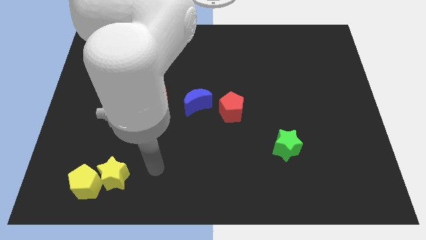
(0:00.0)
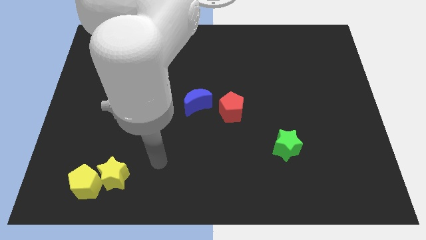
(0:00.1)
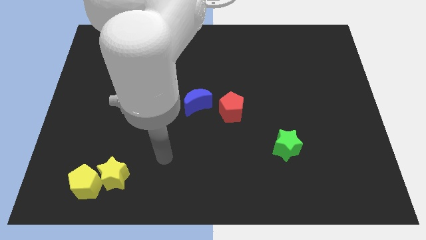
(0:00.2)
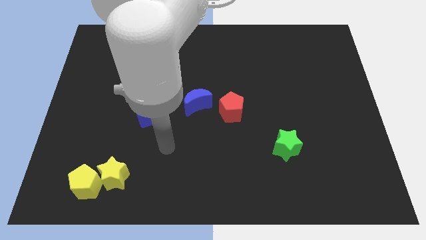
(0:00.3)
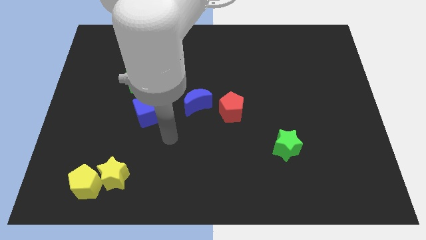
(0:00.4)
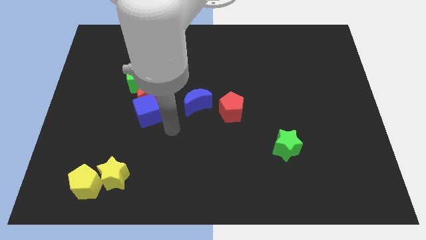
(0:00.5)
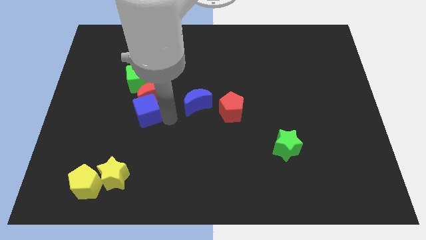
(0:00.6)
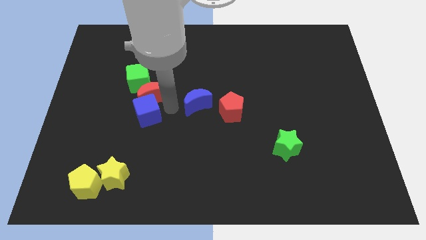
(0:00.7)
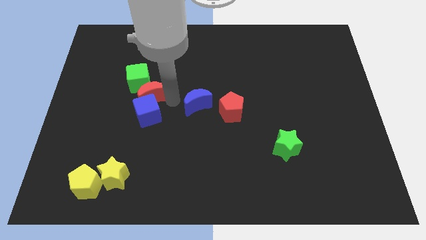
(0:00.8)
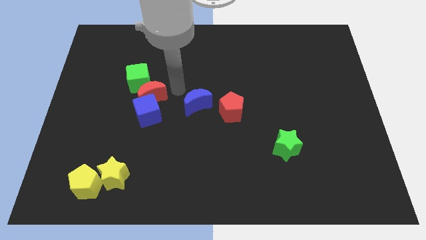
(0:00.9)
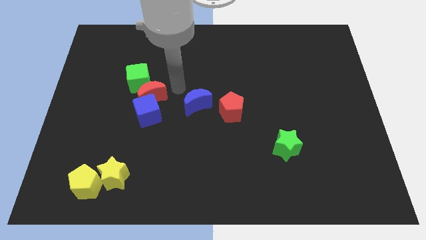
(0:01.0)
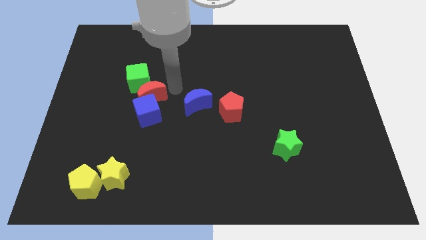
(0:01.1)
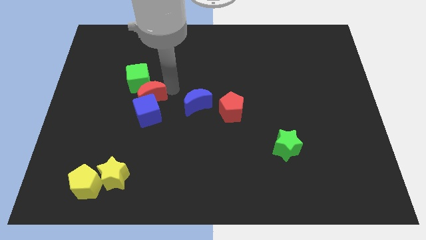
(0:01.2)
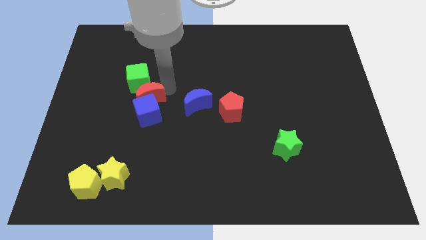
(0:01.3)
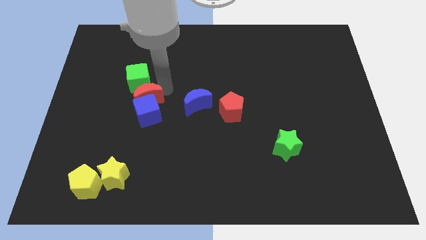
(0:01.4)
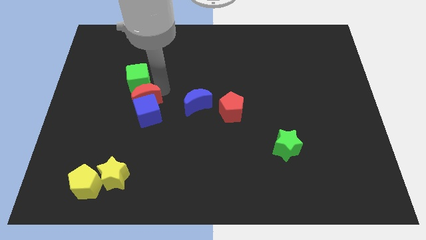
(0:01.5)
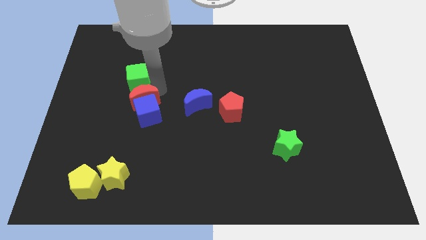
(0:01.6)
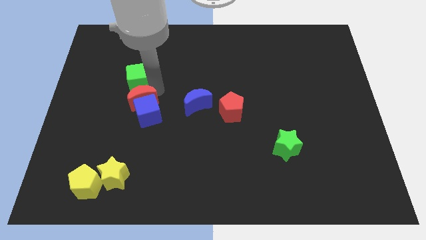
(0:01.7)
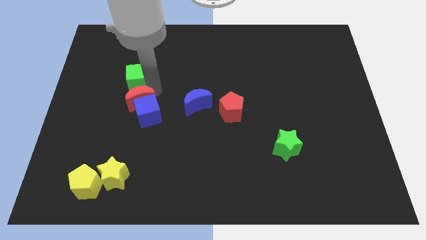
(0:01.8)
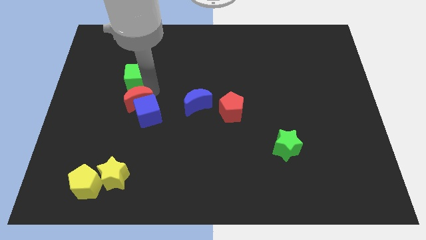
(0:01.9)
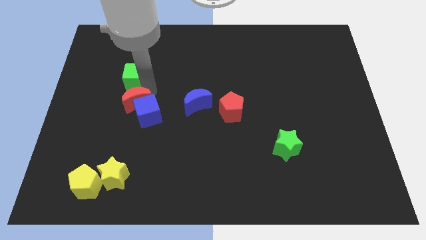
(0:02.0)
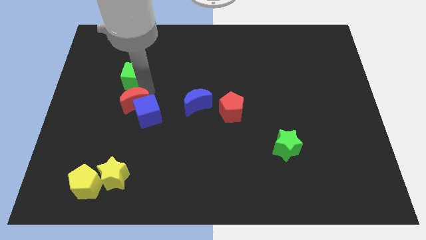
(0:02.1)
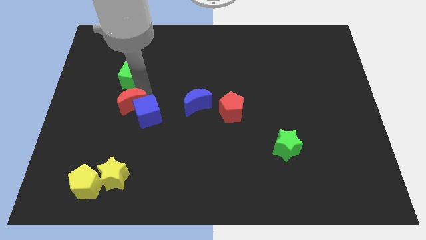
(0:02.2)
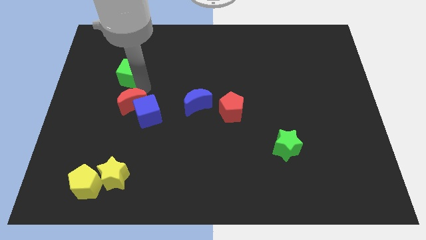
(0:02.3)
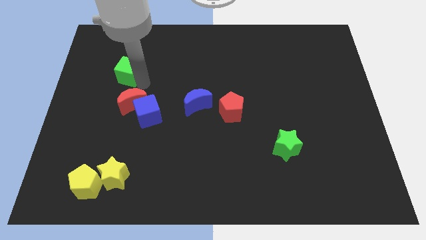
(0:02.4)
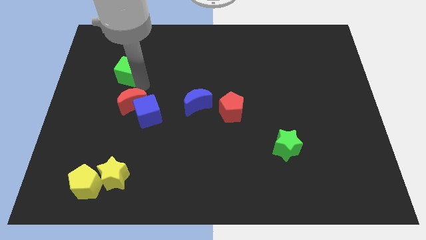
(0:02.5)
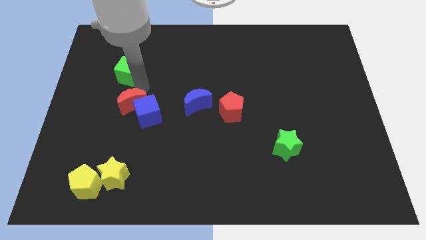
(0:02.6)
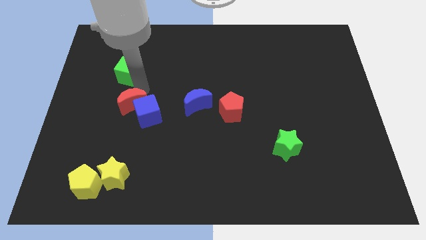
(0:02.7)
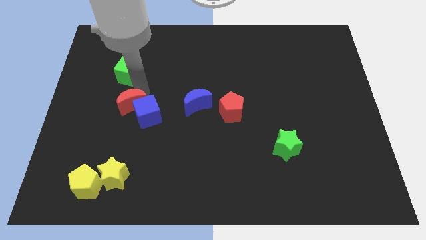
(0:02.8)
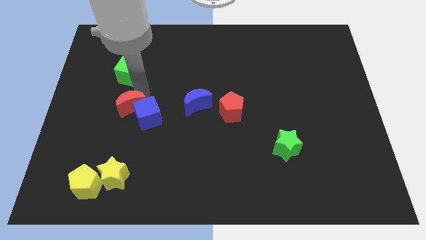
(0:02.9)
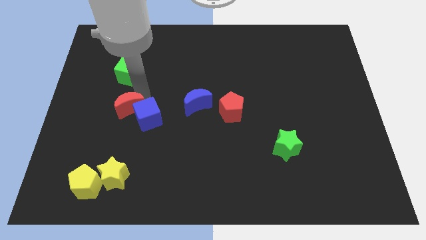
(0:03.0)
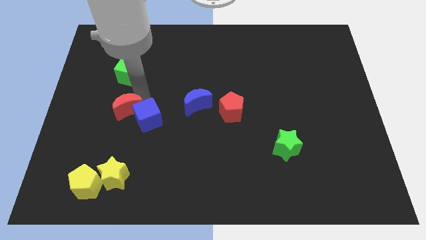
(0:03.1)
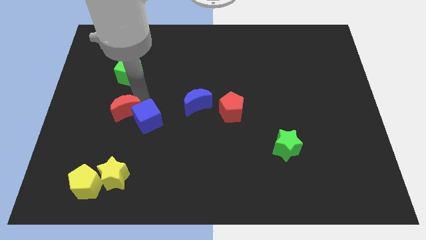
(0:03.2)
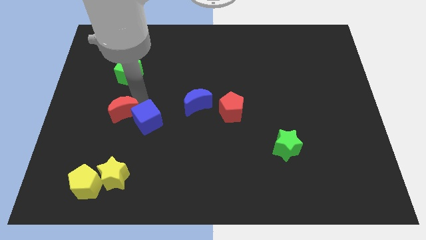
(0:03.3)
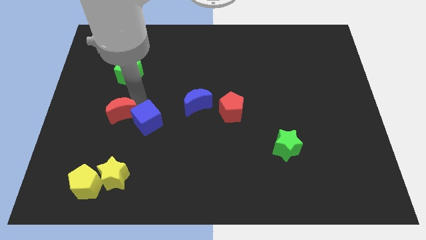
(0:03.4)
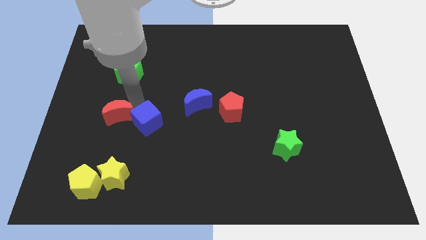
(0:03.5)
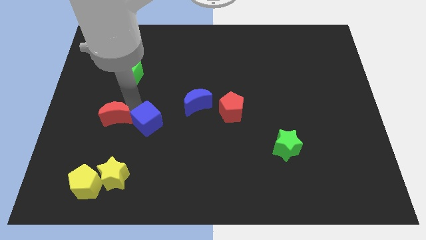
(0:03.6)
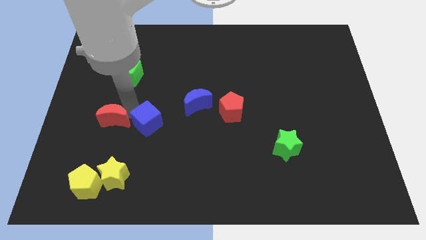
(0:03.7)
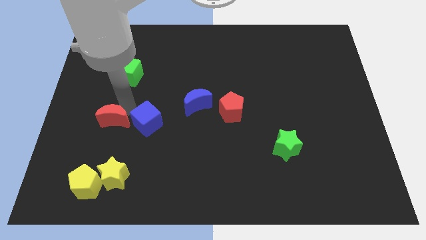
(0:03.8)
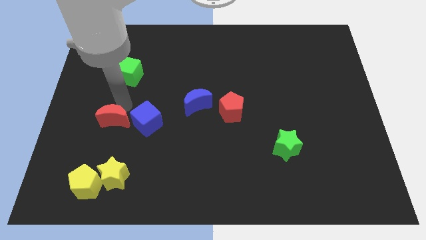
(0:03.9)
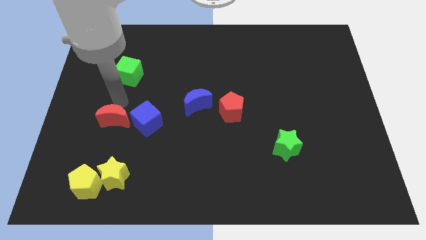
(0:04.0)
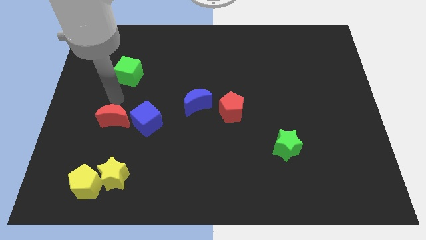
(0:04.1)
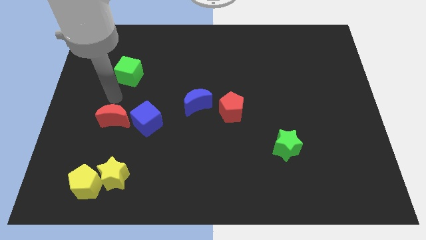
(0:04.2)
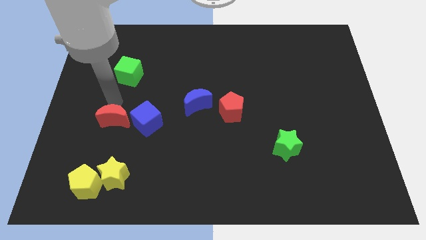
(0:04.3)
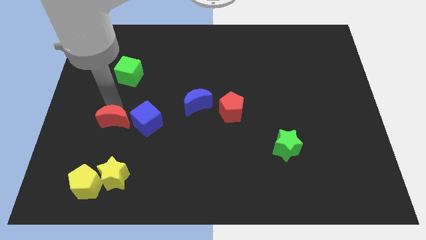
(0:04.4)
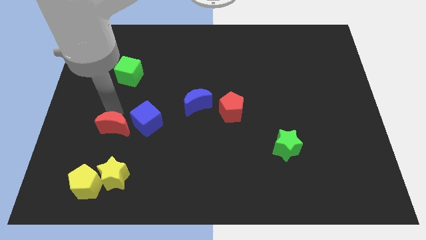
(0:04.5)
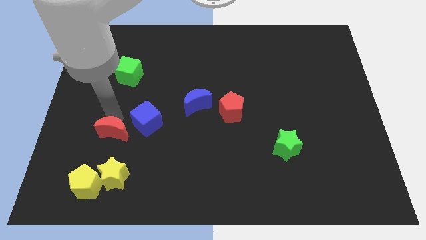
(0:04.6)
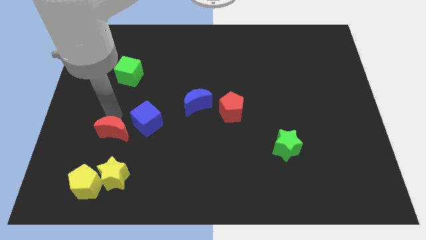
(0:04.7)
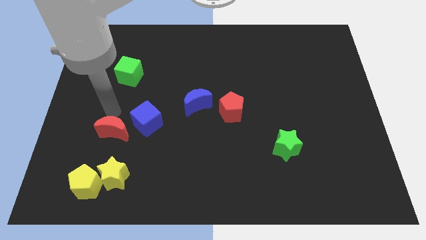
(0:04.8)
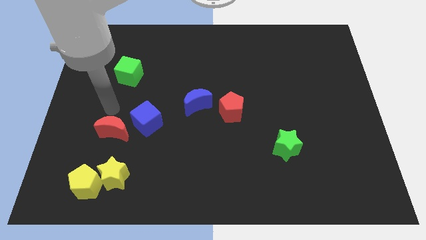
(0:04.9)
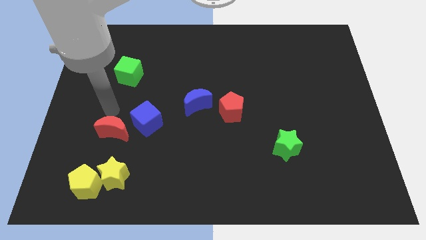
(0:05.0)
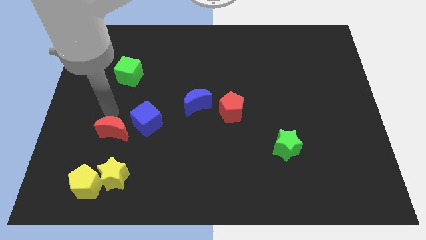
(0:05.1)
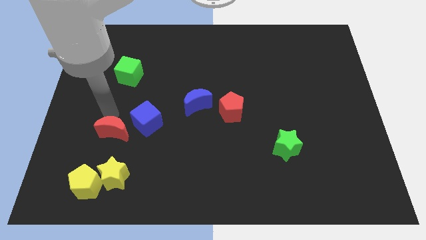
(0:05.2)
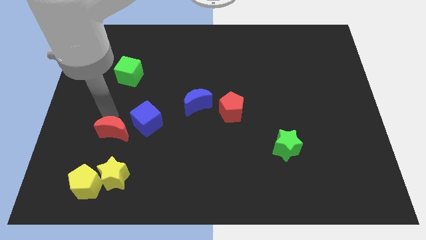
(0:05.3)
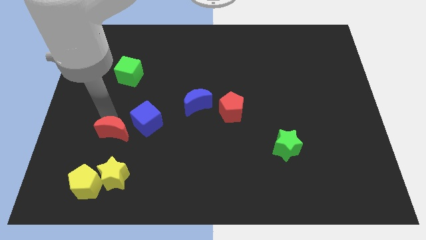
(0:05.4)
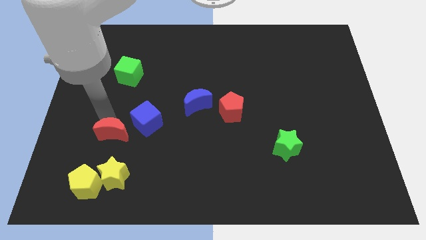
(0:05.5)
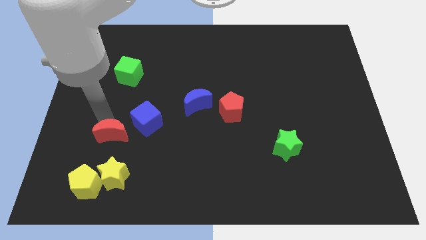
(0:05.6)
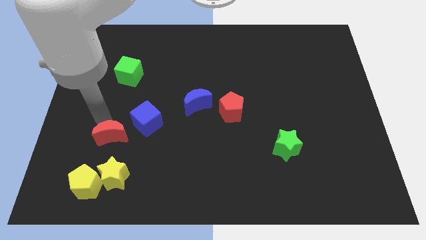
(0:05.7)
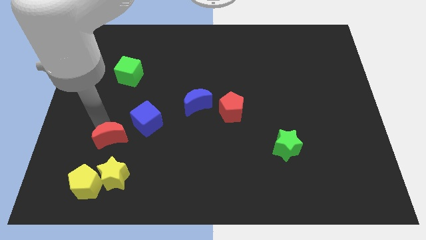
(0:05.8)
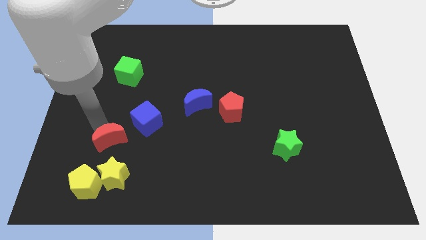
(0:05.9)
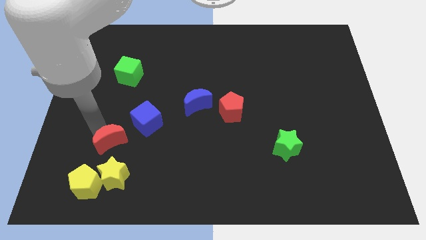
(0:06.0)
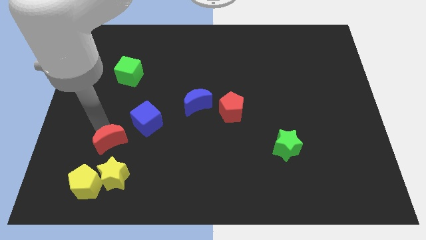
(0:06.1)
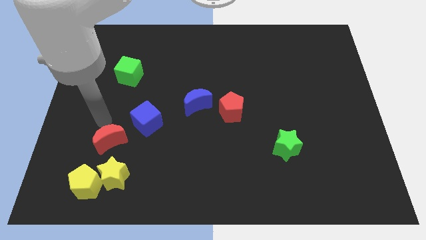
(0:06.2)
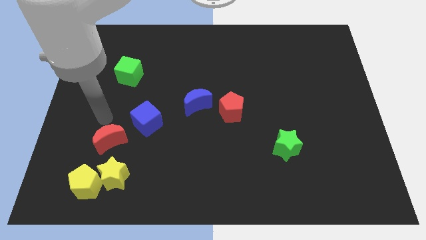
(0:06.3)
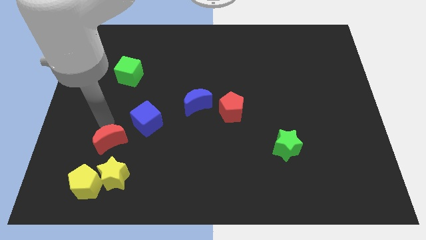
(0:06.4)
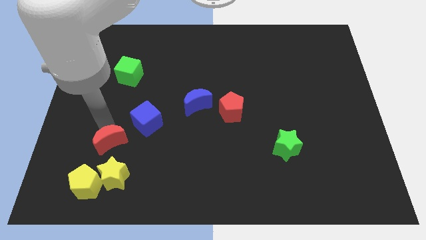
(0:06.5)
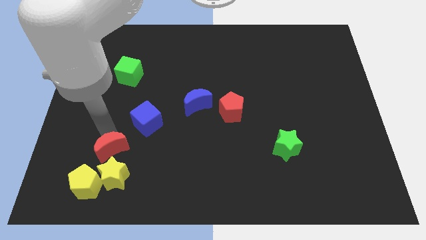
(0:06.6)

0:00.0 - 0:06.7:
slide the red moon to the top right of the yellow pentagon
